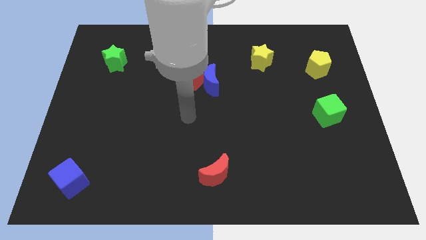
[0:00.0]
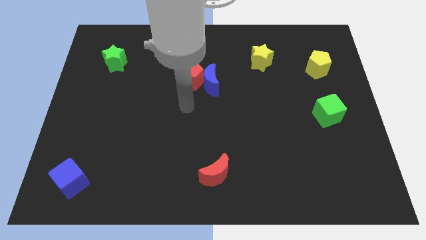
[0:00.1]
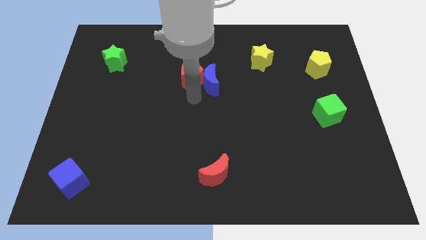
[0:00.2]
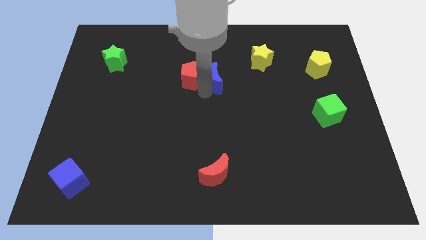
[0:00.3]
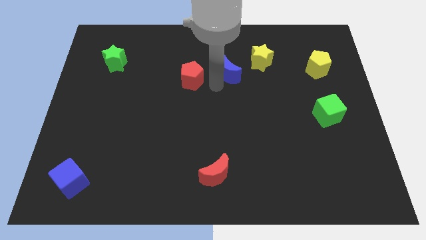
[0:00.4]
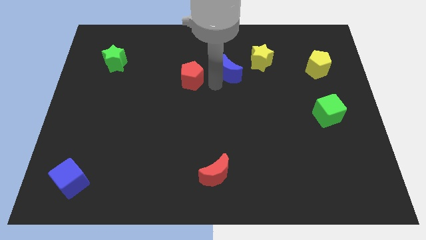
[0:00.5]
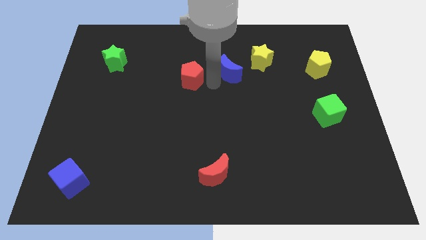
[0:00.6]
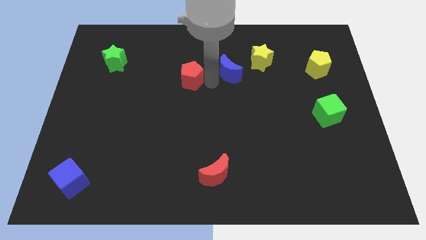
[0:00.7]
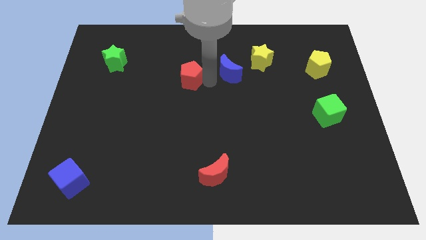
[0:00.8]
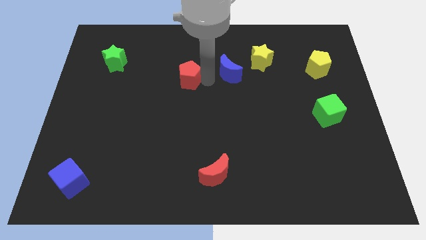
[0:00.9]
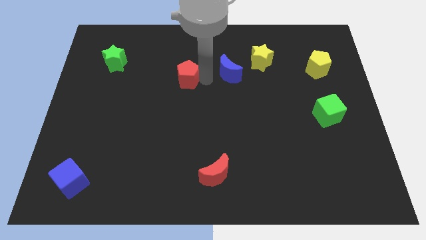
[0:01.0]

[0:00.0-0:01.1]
move the red pentagon away from the blue moon

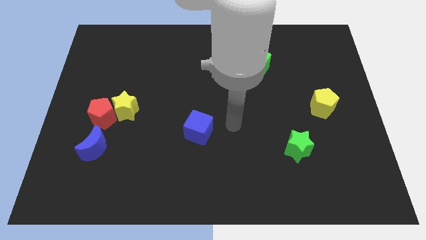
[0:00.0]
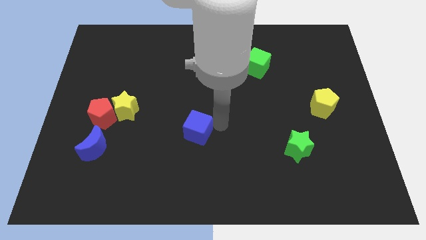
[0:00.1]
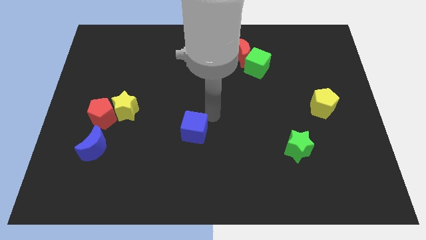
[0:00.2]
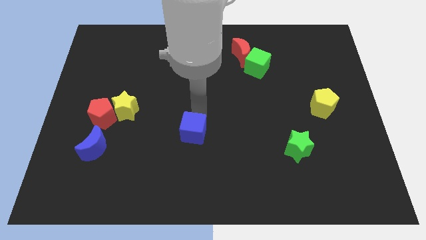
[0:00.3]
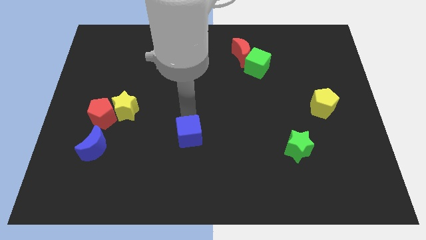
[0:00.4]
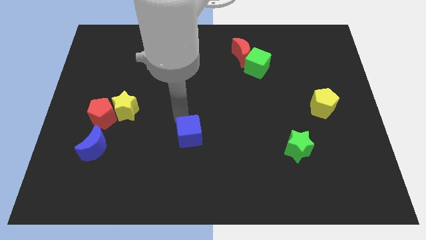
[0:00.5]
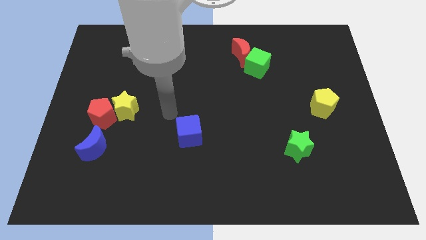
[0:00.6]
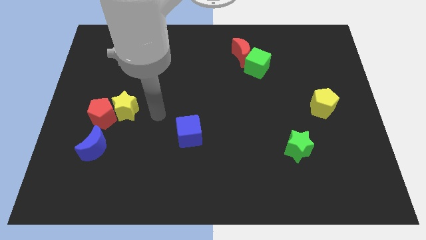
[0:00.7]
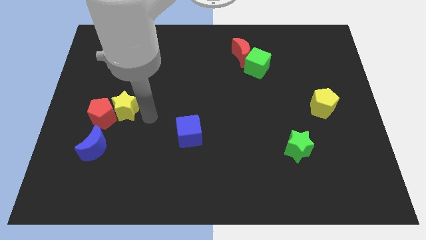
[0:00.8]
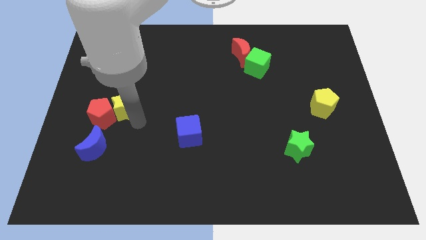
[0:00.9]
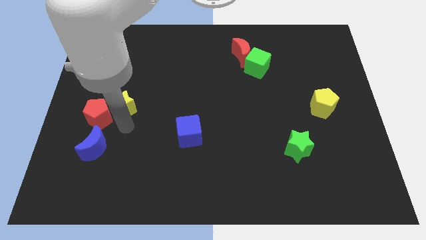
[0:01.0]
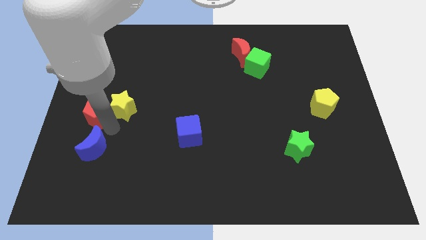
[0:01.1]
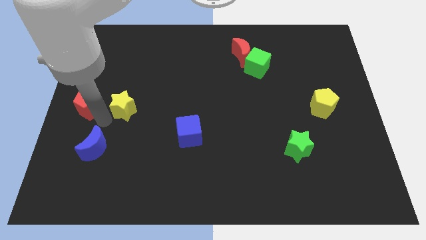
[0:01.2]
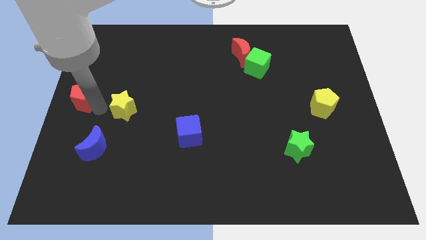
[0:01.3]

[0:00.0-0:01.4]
pull the yellow star apart from the red pentagon

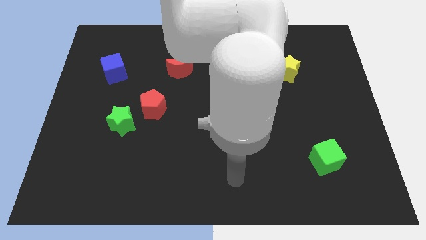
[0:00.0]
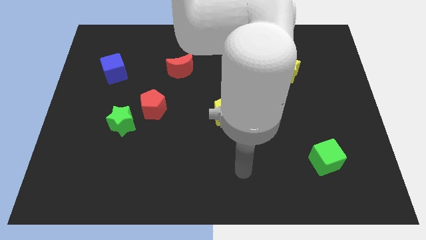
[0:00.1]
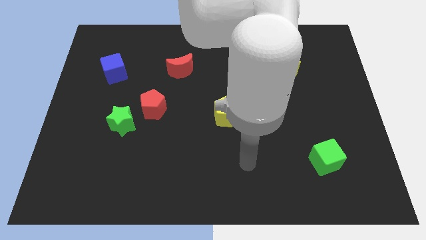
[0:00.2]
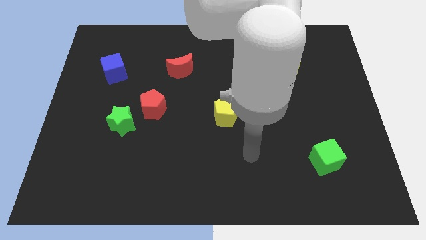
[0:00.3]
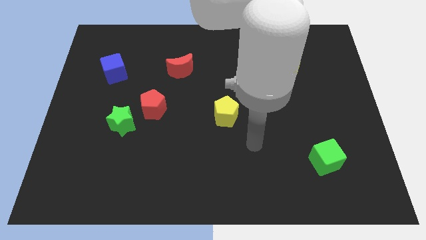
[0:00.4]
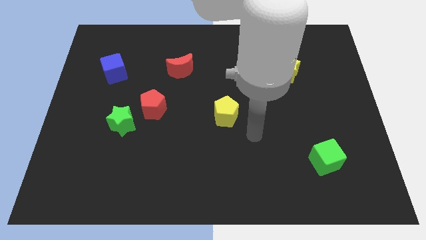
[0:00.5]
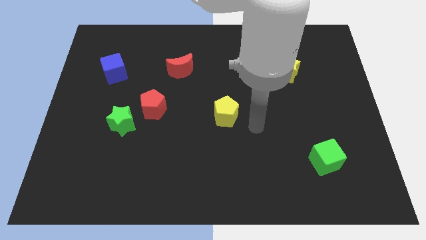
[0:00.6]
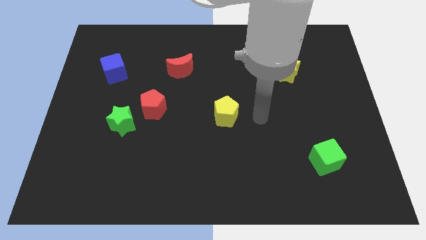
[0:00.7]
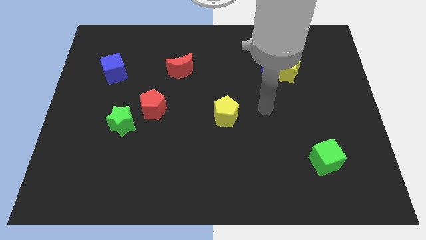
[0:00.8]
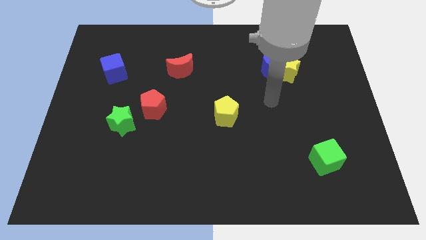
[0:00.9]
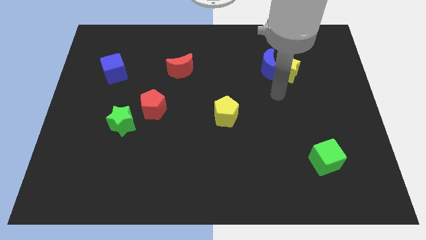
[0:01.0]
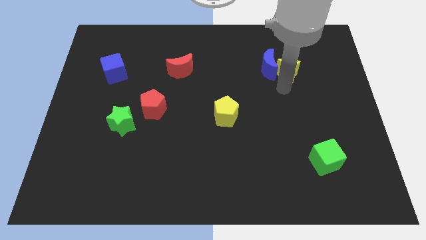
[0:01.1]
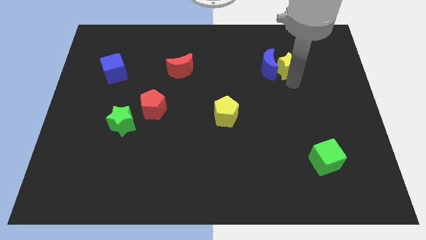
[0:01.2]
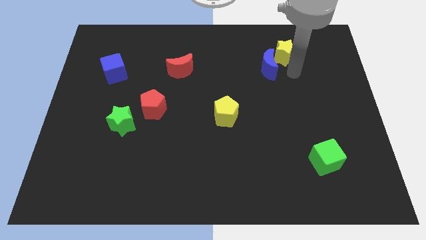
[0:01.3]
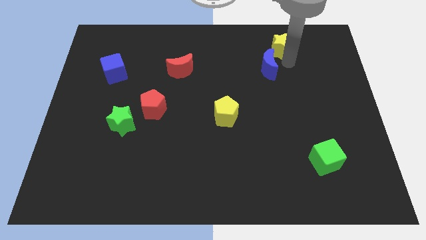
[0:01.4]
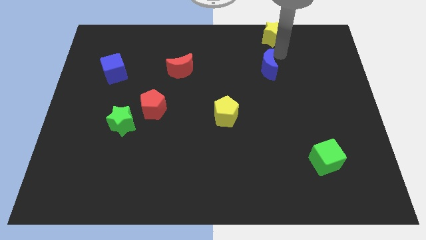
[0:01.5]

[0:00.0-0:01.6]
move the blue moon away from the yellow star

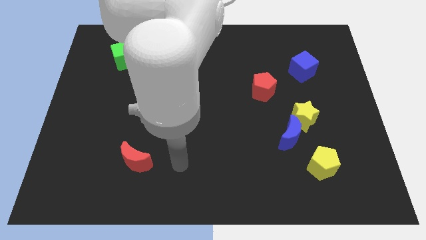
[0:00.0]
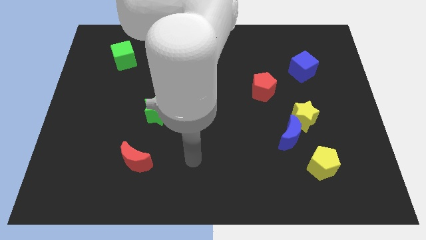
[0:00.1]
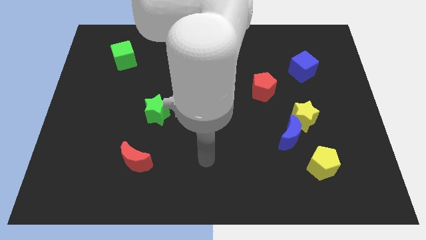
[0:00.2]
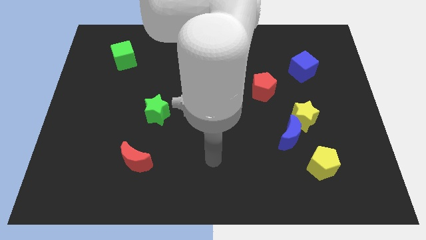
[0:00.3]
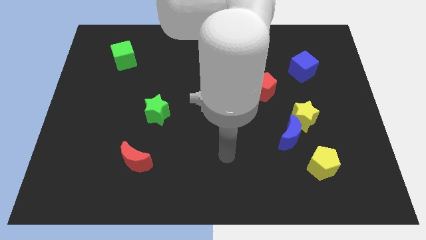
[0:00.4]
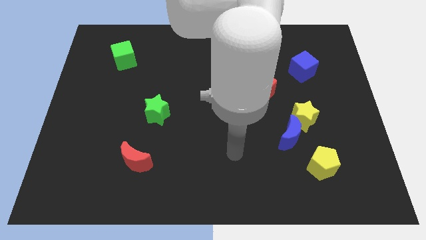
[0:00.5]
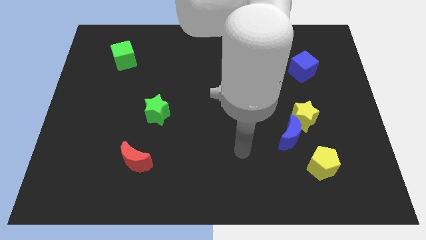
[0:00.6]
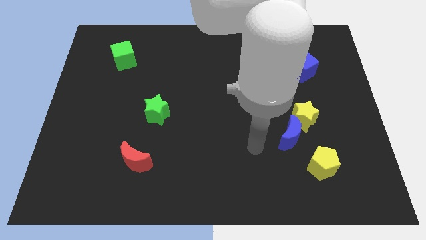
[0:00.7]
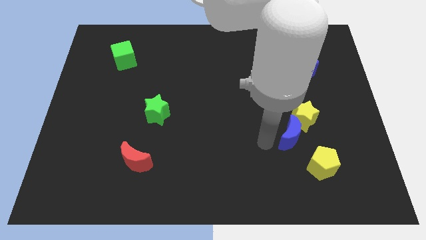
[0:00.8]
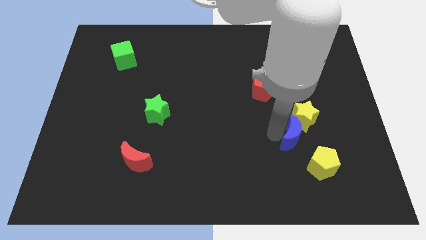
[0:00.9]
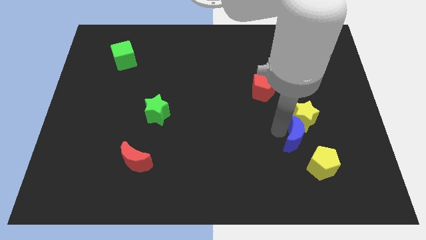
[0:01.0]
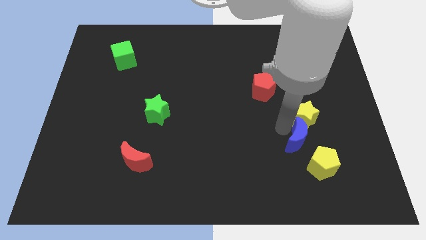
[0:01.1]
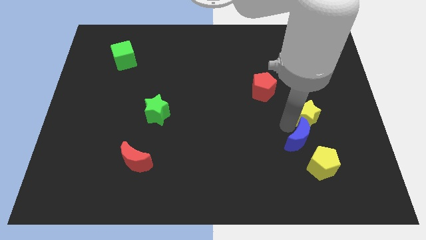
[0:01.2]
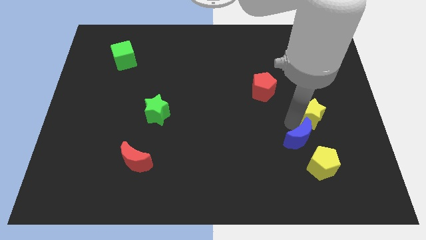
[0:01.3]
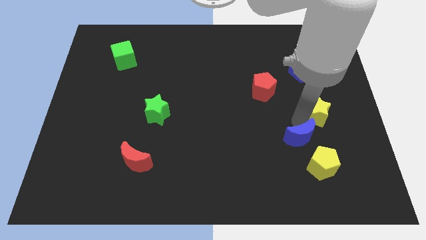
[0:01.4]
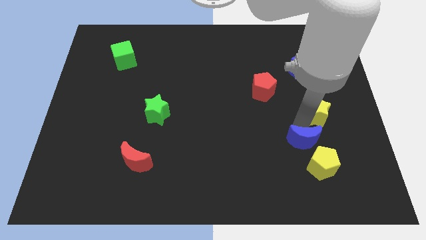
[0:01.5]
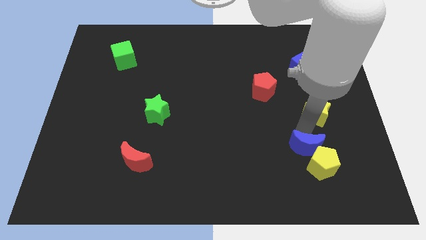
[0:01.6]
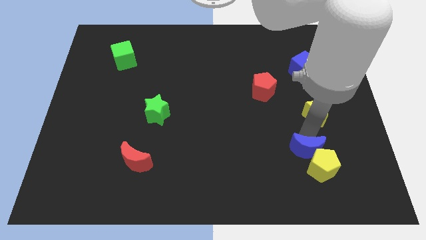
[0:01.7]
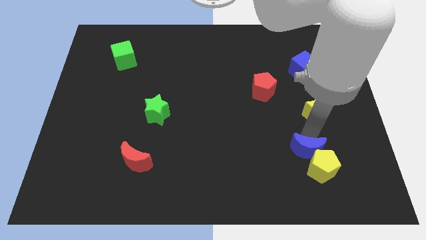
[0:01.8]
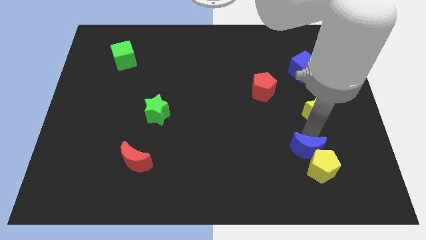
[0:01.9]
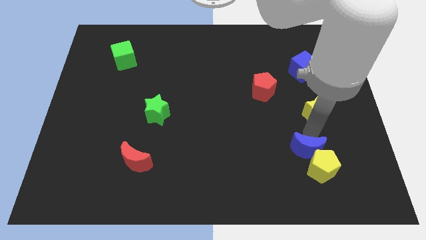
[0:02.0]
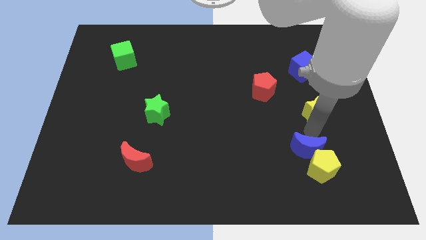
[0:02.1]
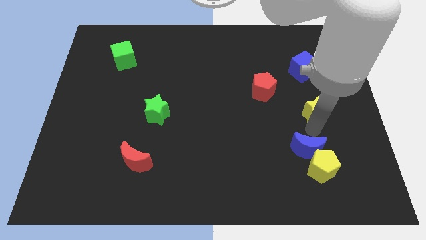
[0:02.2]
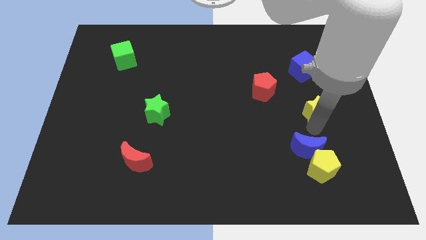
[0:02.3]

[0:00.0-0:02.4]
pull the yellow star apart from the blue moon

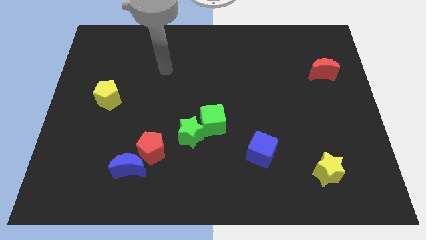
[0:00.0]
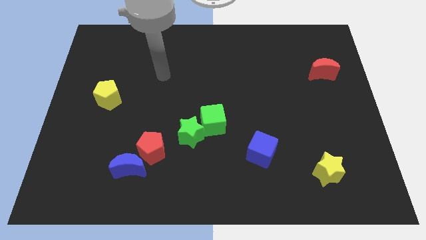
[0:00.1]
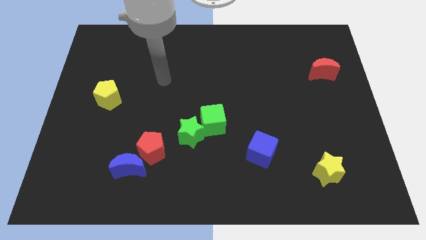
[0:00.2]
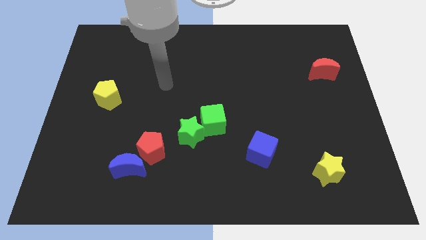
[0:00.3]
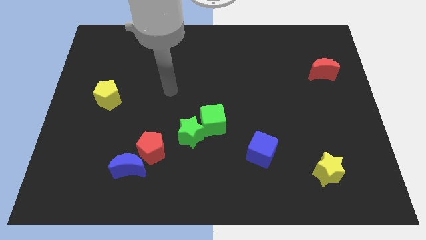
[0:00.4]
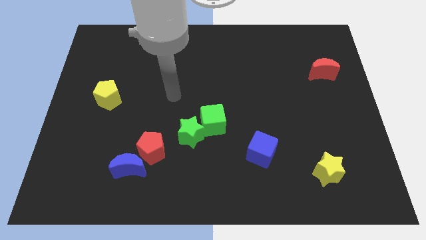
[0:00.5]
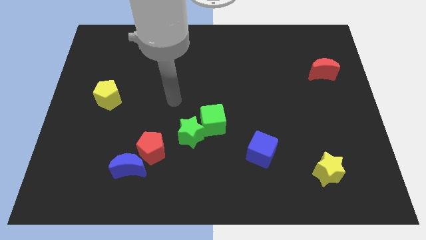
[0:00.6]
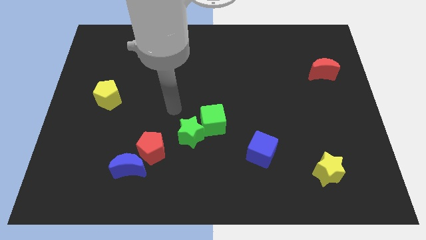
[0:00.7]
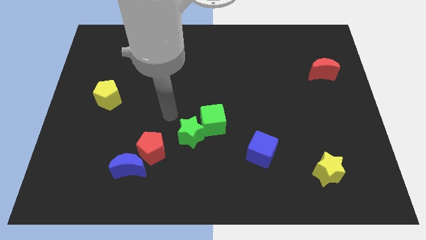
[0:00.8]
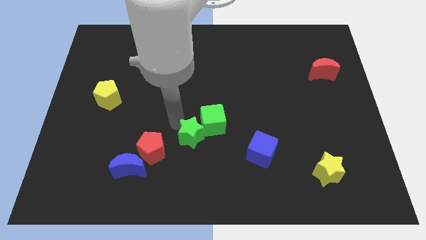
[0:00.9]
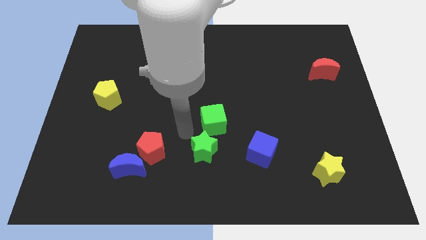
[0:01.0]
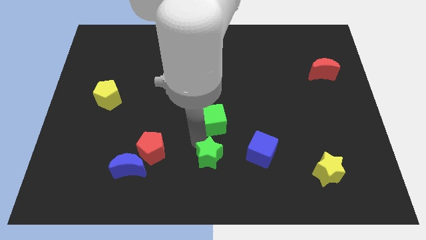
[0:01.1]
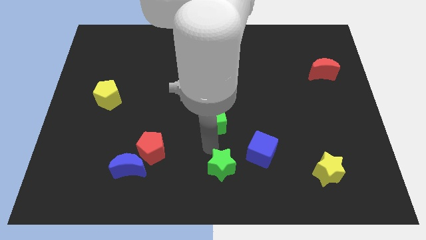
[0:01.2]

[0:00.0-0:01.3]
pull the green cube apart from the green star

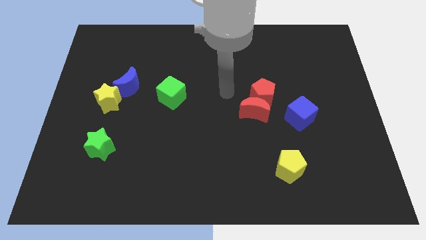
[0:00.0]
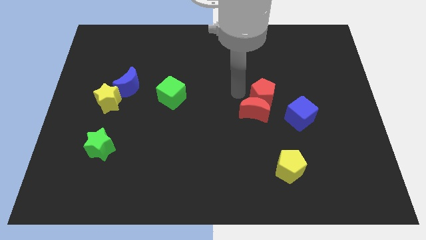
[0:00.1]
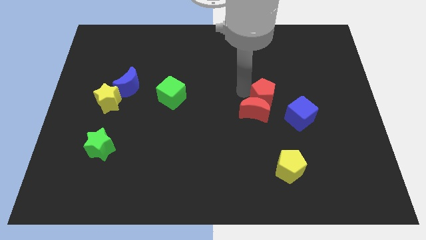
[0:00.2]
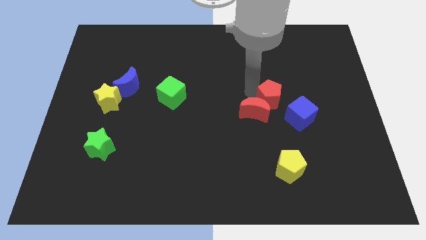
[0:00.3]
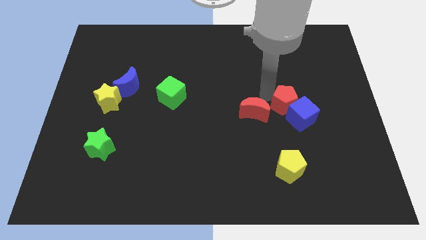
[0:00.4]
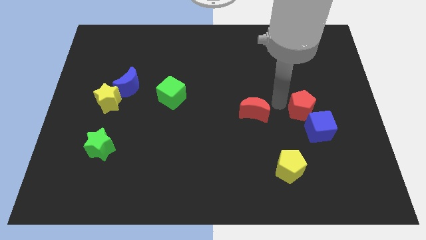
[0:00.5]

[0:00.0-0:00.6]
pull the red moon apart from the red pentagon

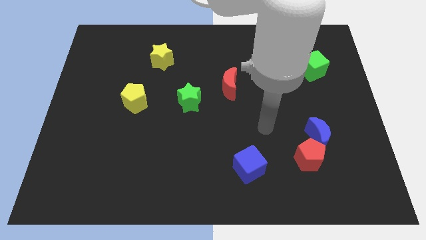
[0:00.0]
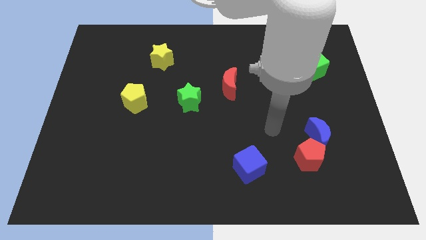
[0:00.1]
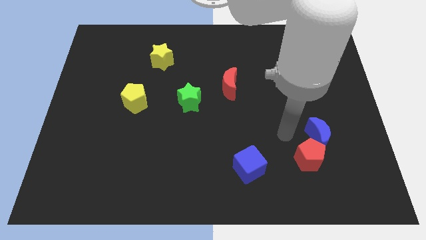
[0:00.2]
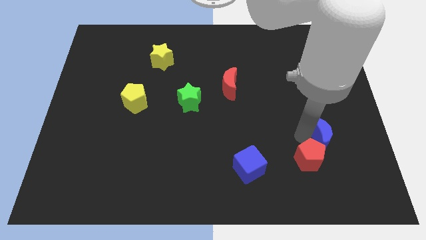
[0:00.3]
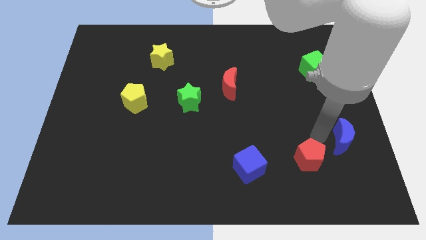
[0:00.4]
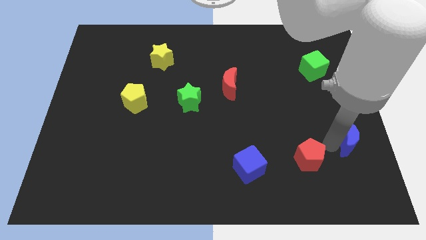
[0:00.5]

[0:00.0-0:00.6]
separate the red pentagon from the blue moon
